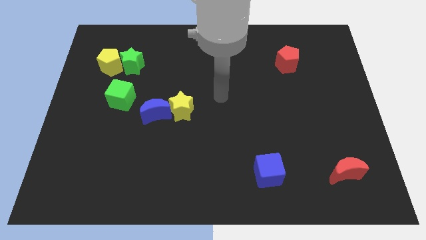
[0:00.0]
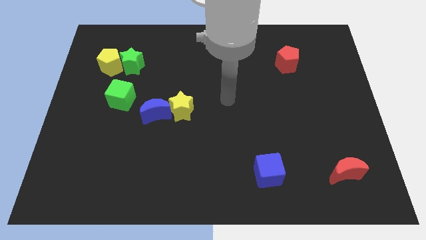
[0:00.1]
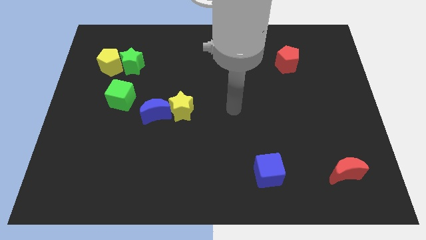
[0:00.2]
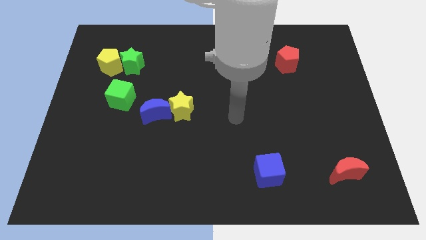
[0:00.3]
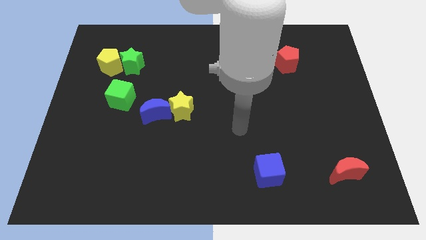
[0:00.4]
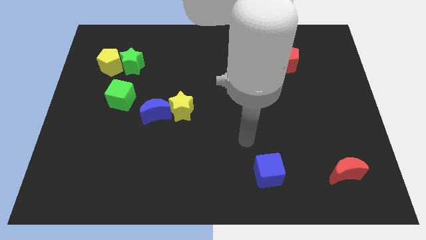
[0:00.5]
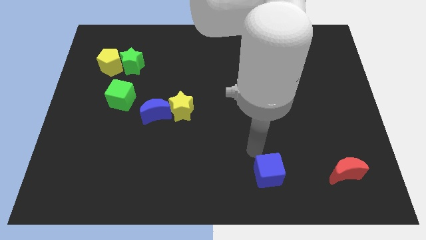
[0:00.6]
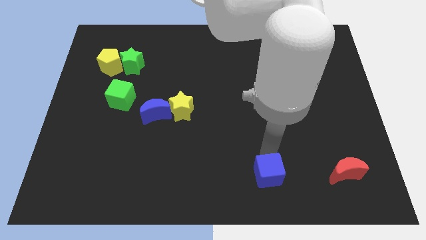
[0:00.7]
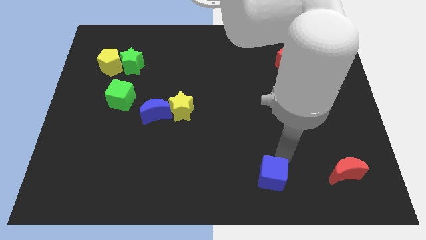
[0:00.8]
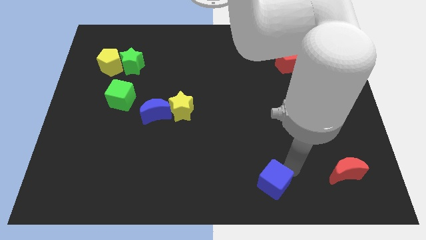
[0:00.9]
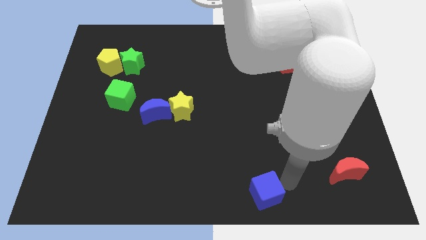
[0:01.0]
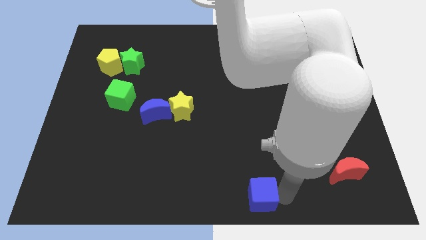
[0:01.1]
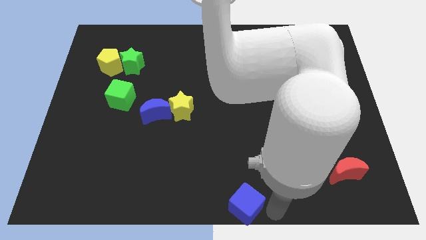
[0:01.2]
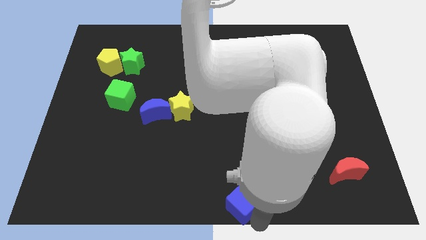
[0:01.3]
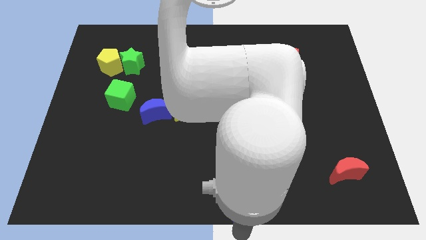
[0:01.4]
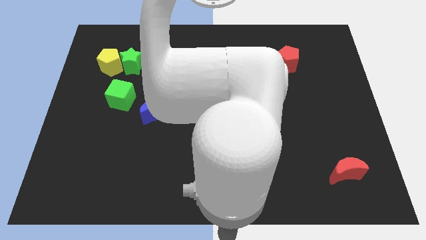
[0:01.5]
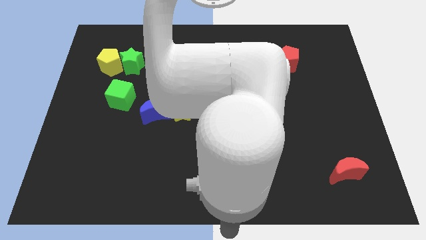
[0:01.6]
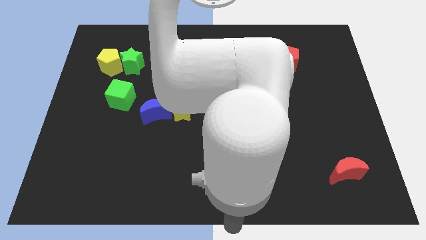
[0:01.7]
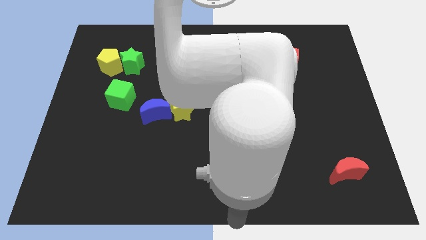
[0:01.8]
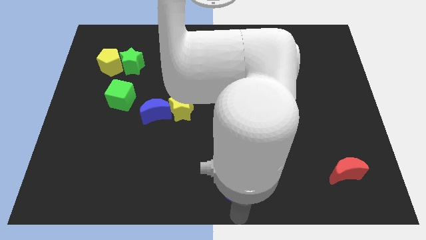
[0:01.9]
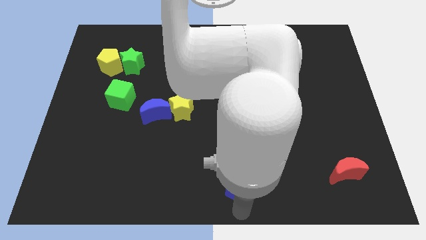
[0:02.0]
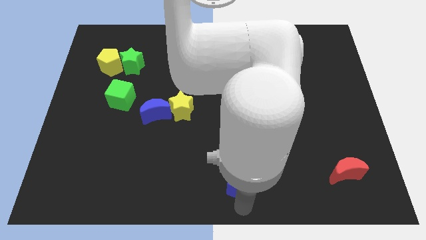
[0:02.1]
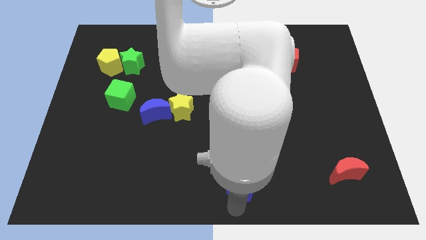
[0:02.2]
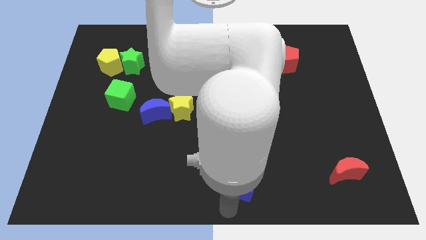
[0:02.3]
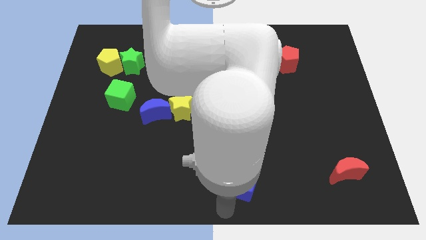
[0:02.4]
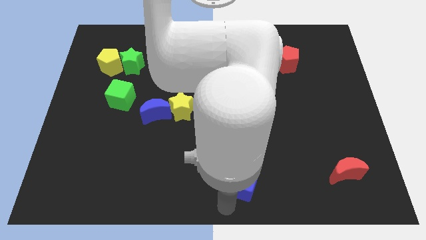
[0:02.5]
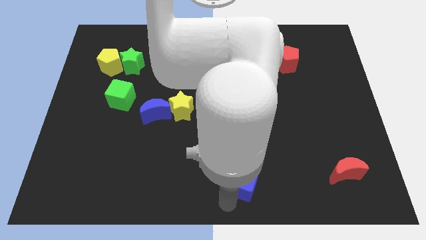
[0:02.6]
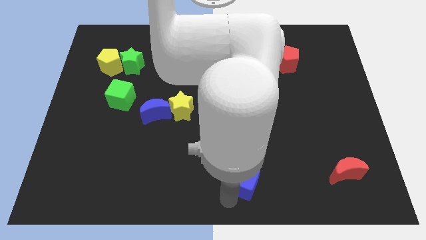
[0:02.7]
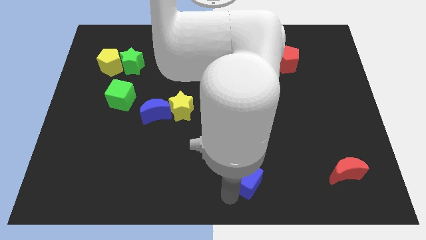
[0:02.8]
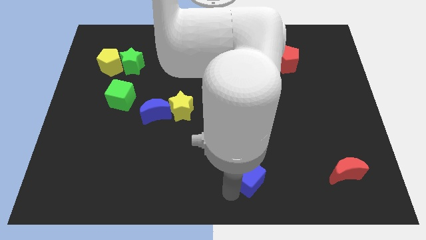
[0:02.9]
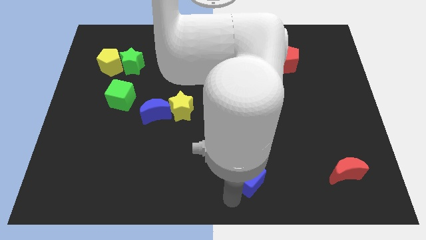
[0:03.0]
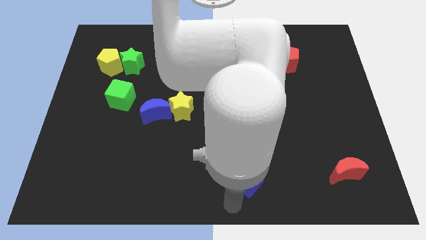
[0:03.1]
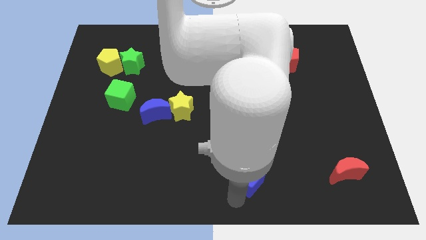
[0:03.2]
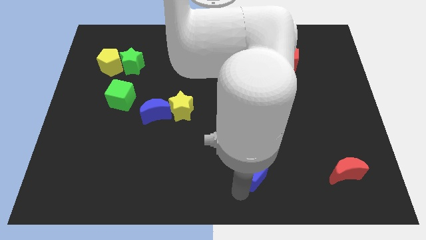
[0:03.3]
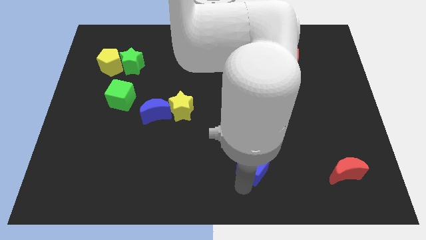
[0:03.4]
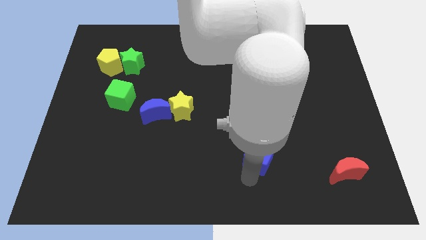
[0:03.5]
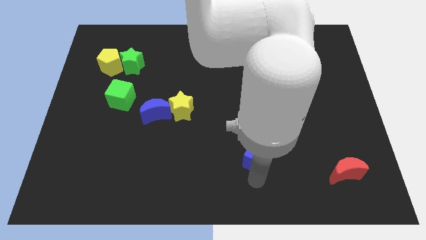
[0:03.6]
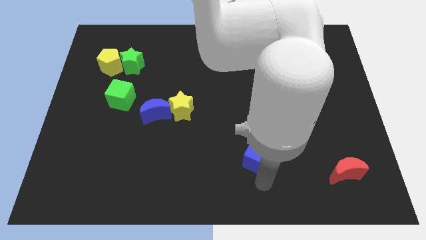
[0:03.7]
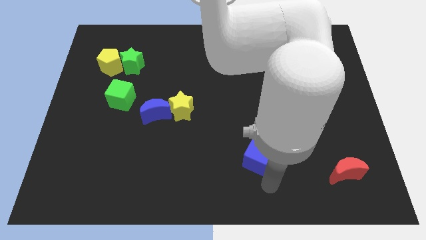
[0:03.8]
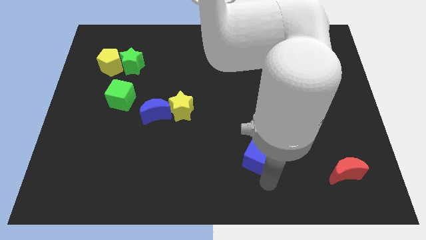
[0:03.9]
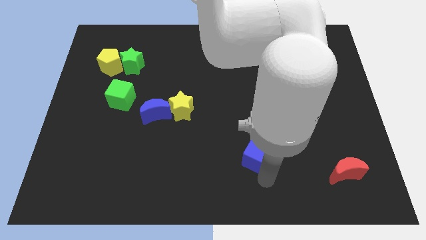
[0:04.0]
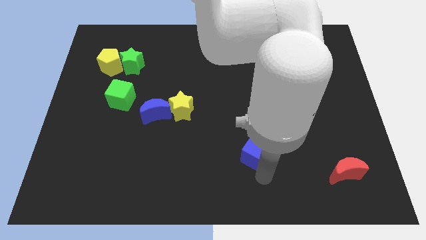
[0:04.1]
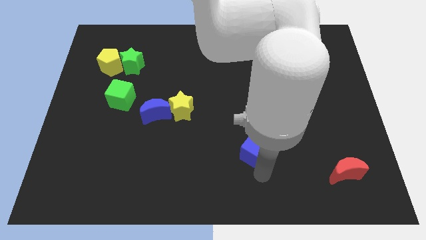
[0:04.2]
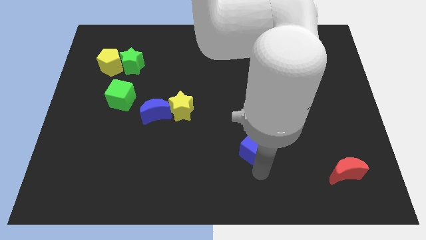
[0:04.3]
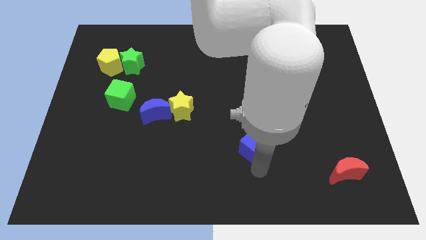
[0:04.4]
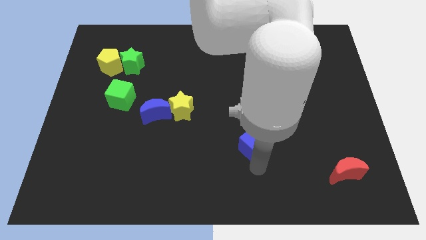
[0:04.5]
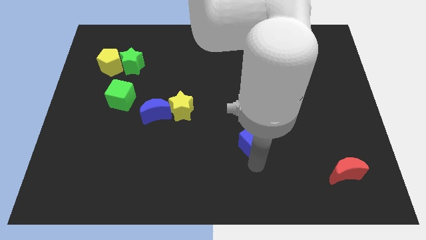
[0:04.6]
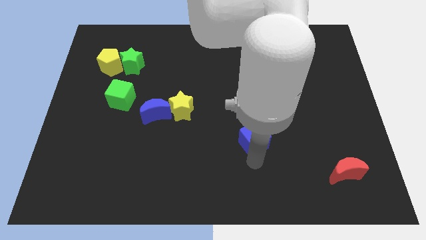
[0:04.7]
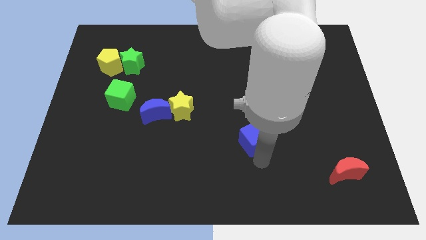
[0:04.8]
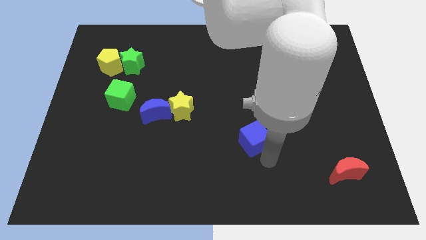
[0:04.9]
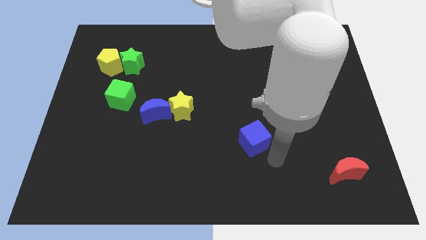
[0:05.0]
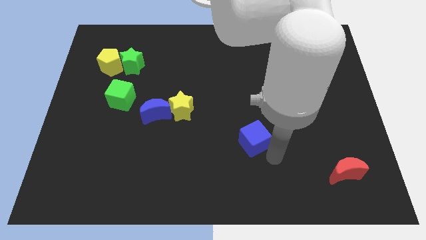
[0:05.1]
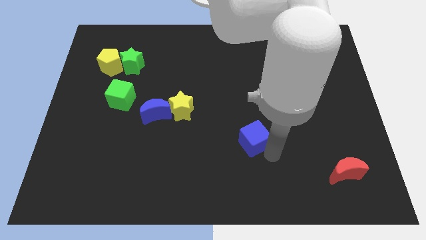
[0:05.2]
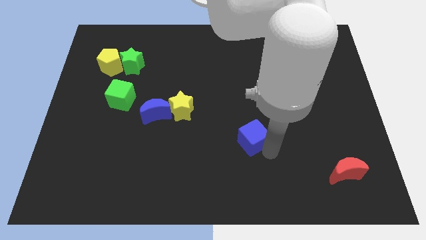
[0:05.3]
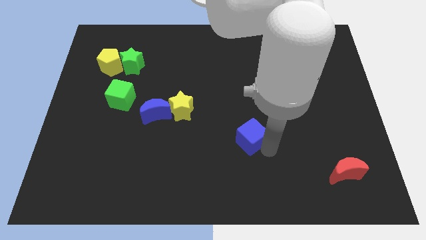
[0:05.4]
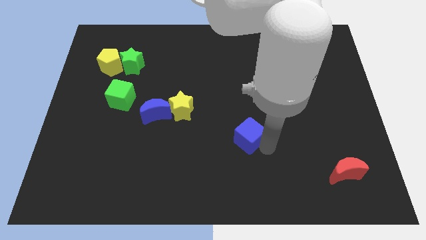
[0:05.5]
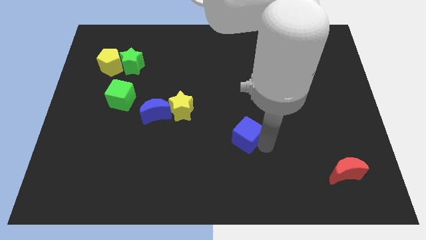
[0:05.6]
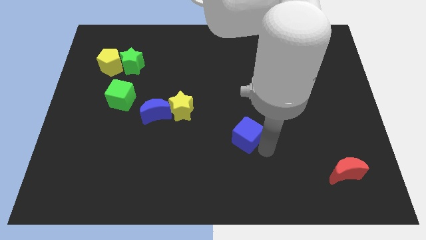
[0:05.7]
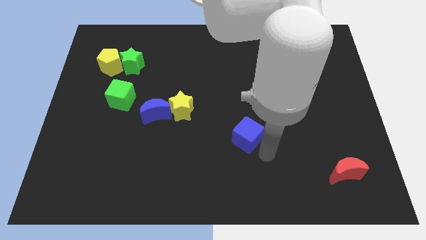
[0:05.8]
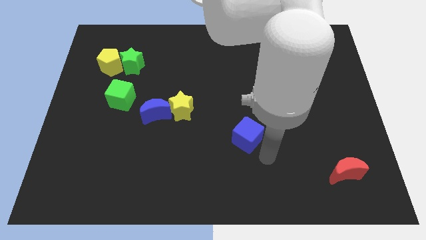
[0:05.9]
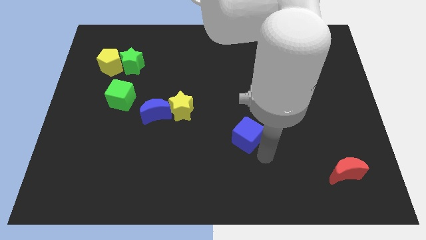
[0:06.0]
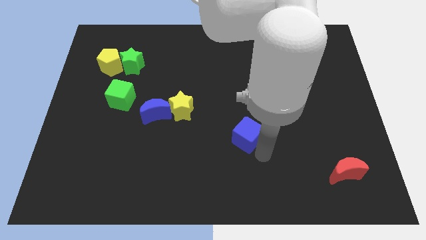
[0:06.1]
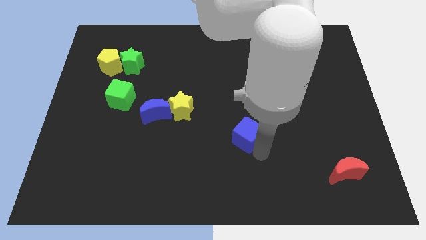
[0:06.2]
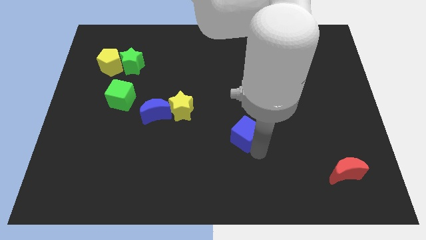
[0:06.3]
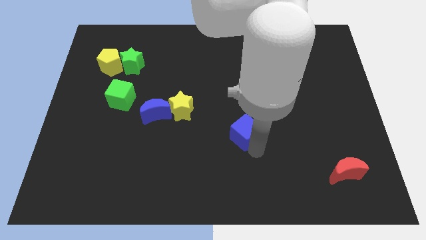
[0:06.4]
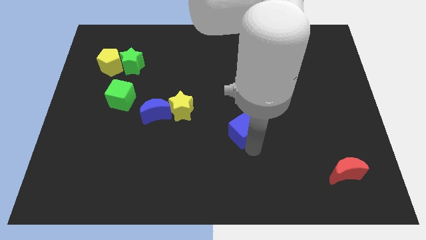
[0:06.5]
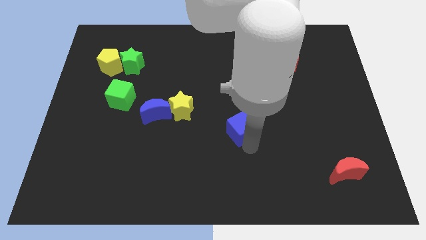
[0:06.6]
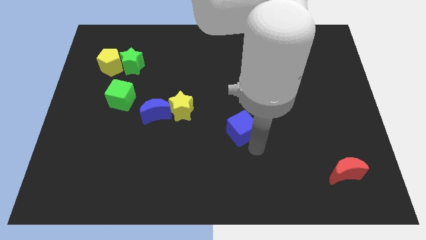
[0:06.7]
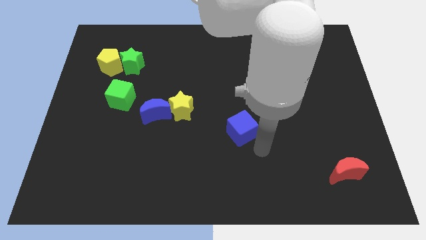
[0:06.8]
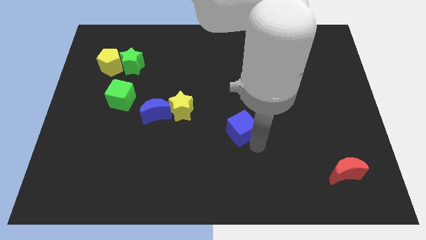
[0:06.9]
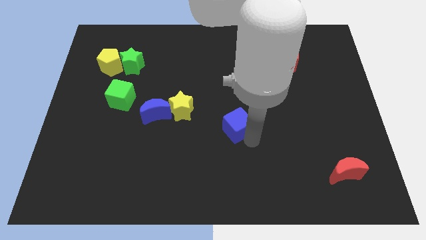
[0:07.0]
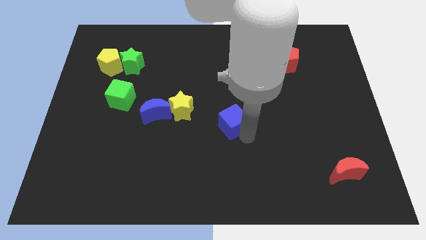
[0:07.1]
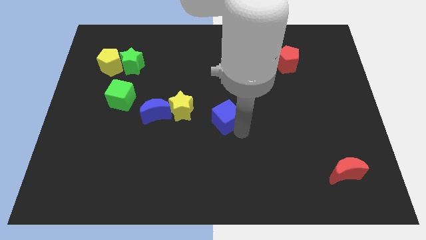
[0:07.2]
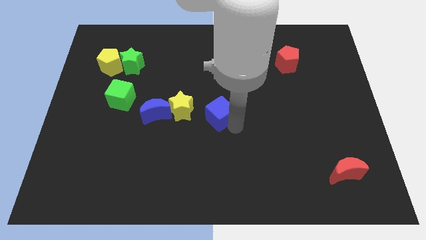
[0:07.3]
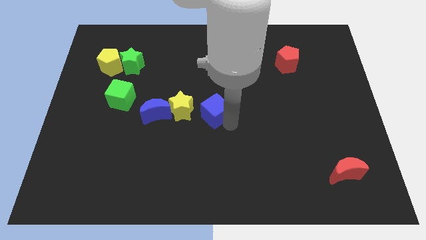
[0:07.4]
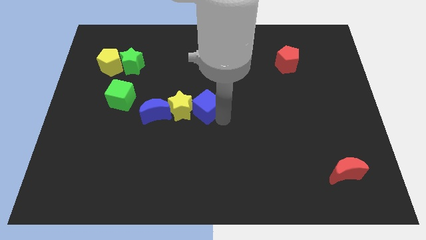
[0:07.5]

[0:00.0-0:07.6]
move the blue cube up and left

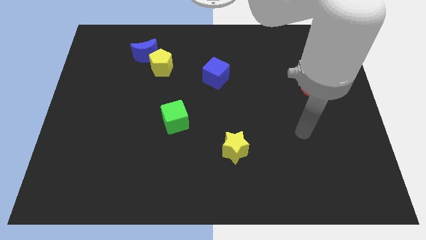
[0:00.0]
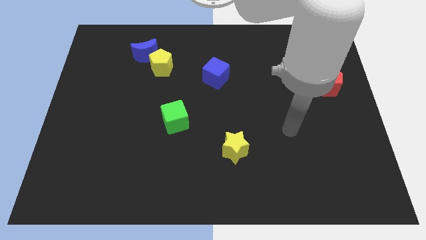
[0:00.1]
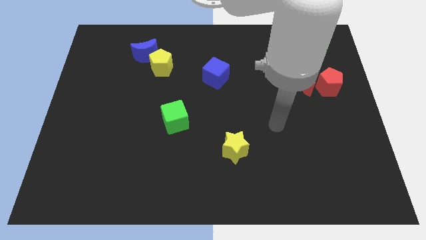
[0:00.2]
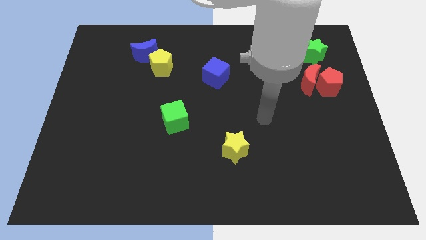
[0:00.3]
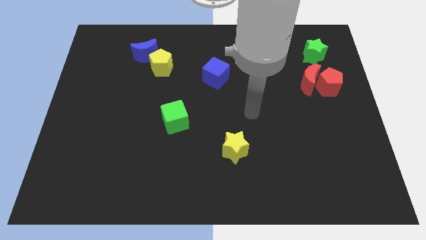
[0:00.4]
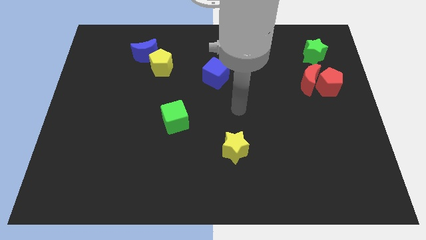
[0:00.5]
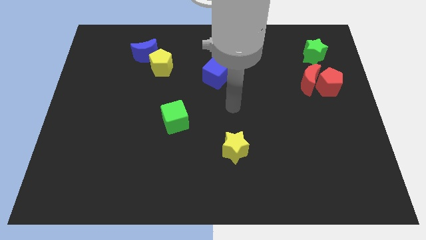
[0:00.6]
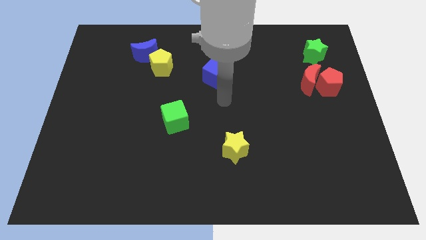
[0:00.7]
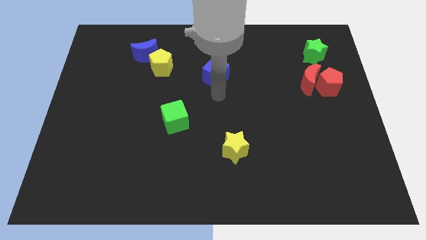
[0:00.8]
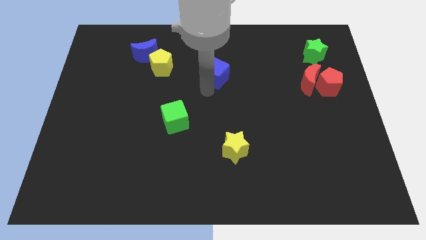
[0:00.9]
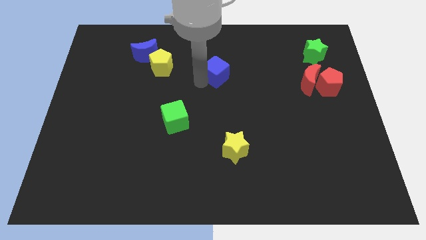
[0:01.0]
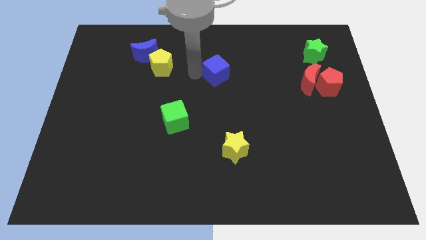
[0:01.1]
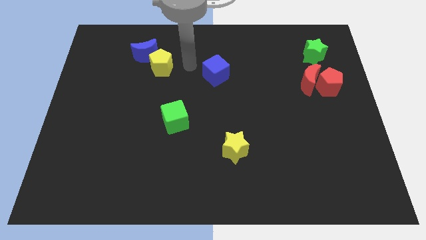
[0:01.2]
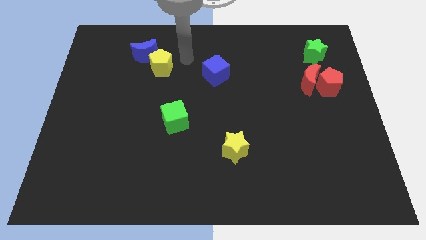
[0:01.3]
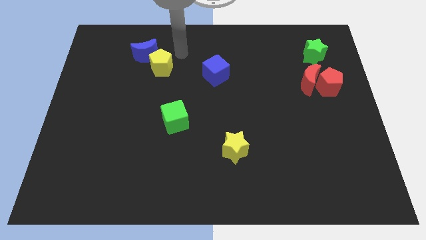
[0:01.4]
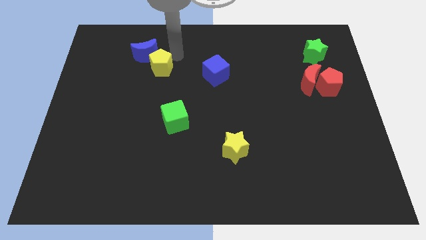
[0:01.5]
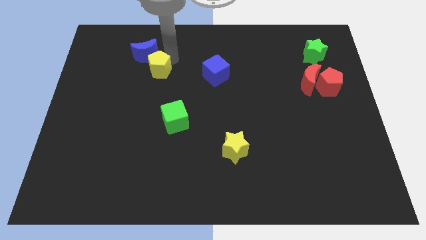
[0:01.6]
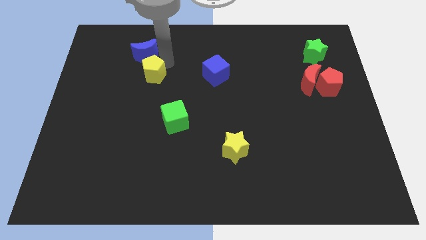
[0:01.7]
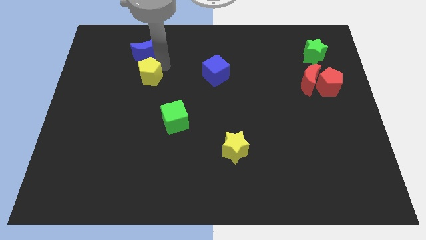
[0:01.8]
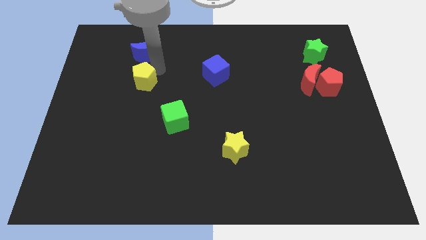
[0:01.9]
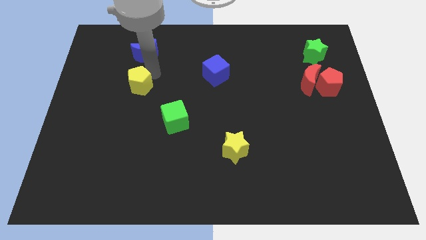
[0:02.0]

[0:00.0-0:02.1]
slide the yellow pentagon a little bit down and left diagonally
